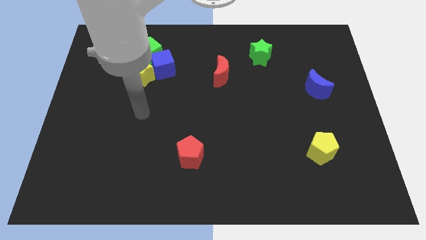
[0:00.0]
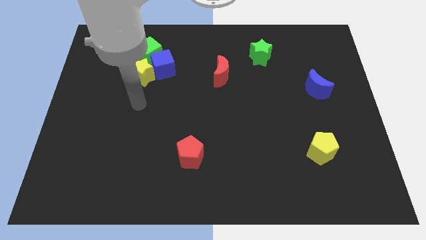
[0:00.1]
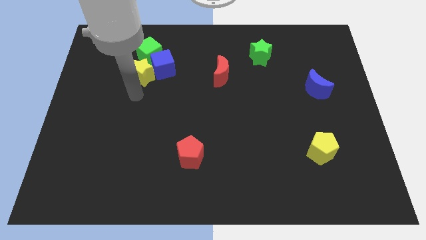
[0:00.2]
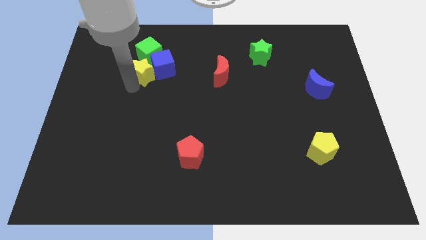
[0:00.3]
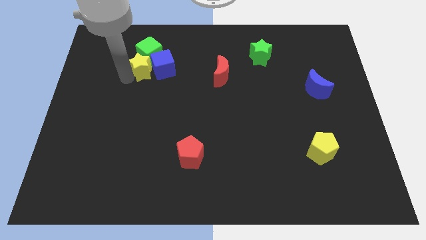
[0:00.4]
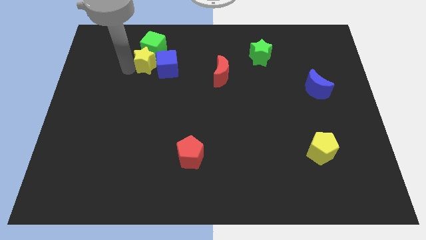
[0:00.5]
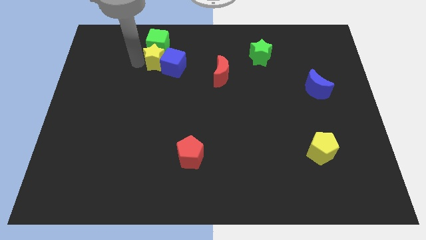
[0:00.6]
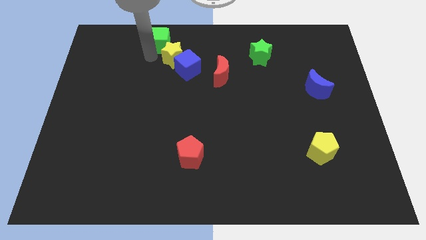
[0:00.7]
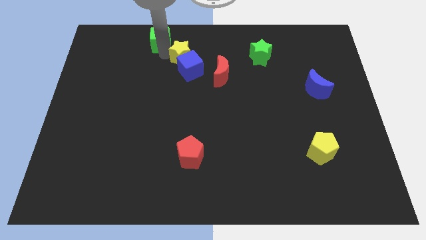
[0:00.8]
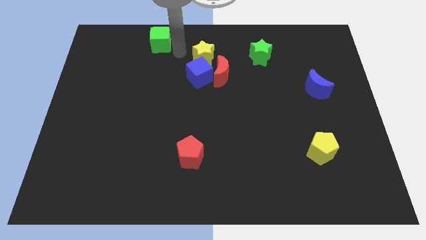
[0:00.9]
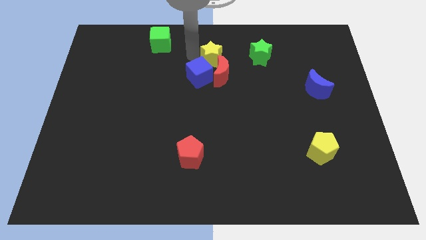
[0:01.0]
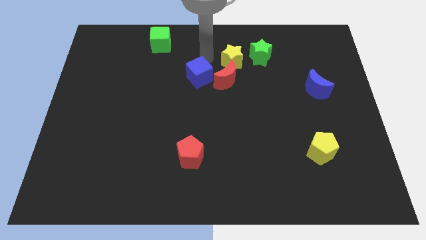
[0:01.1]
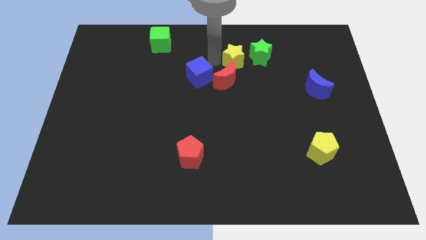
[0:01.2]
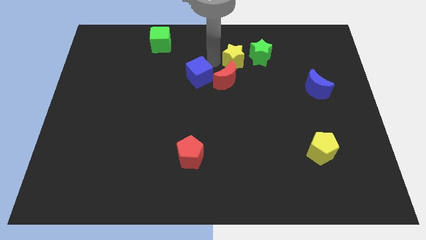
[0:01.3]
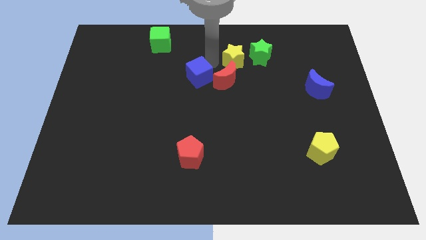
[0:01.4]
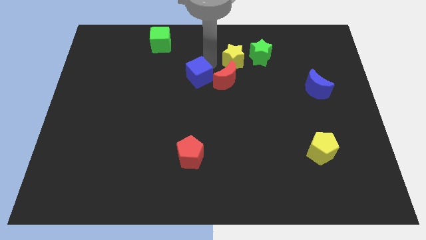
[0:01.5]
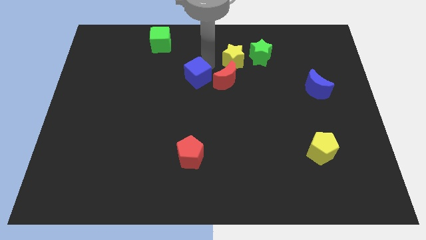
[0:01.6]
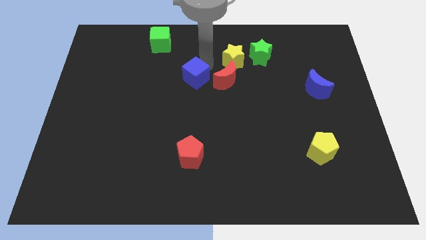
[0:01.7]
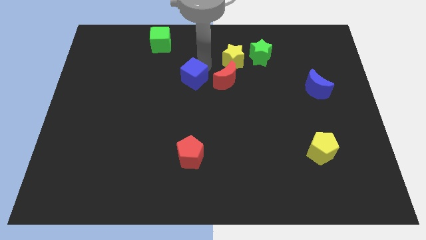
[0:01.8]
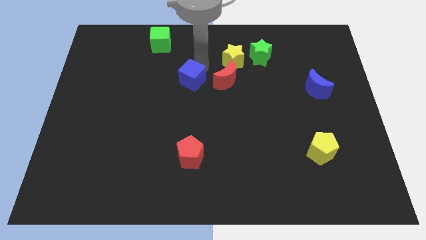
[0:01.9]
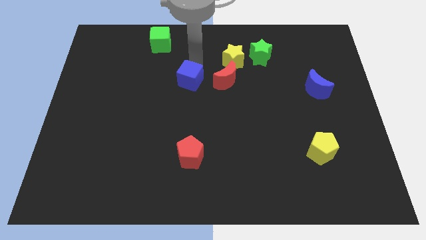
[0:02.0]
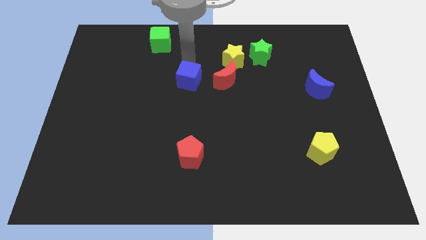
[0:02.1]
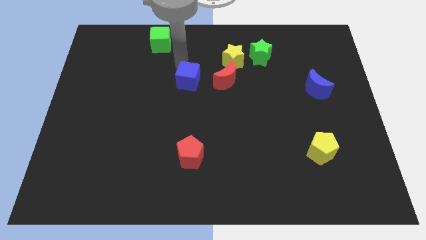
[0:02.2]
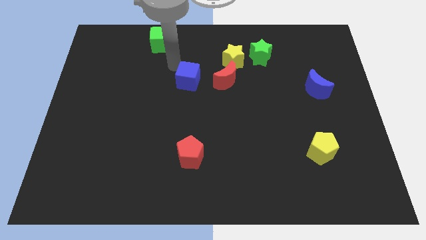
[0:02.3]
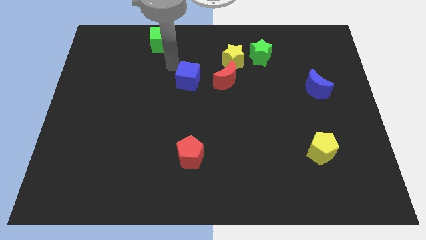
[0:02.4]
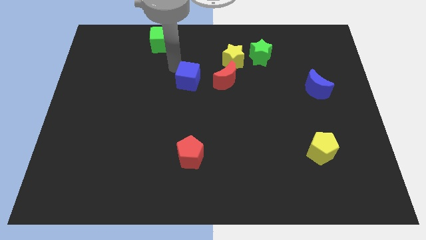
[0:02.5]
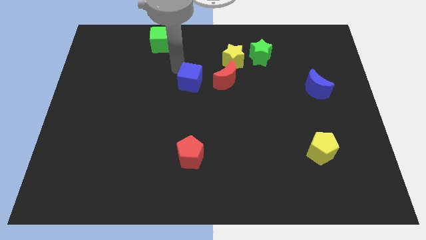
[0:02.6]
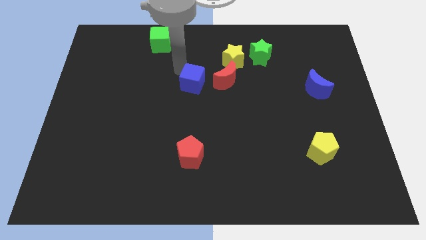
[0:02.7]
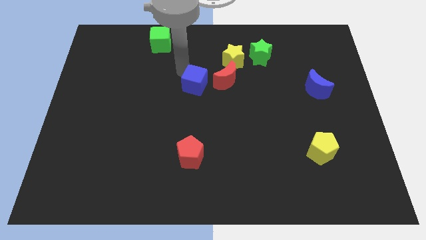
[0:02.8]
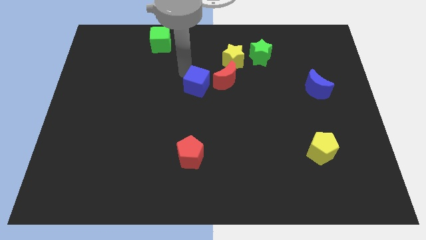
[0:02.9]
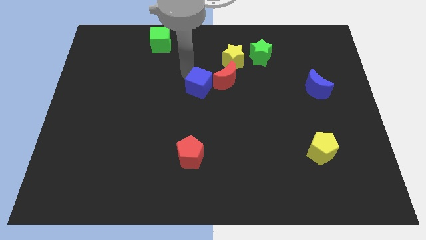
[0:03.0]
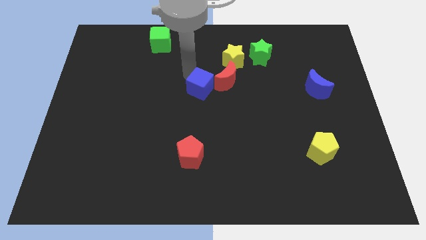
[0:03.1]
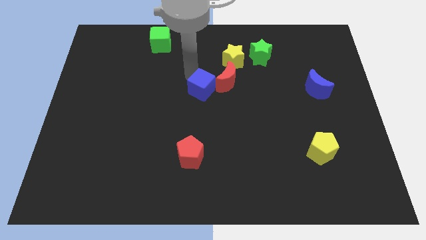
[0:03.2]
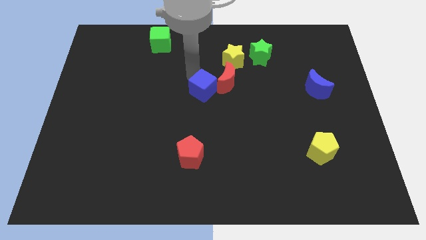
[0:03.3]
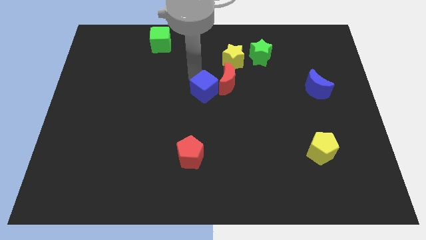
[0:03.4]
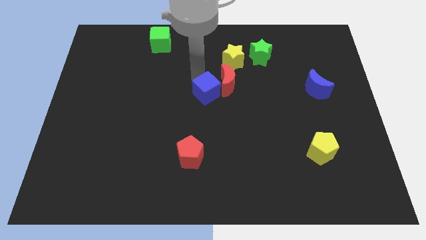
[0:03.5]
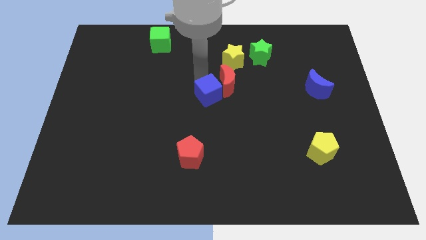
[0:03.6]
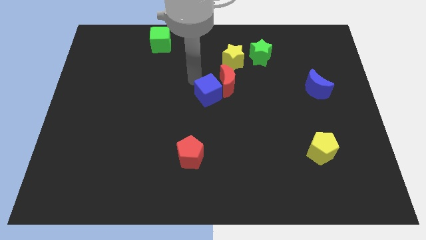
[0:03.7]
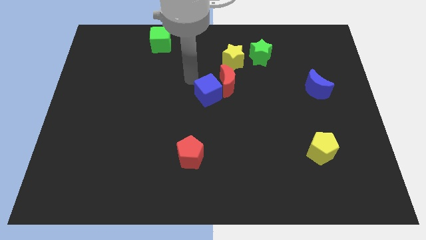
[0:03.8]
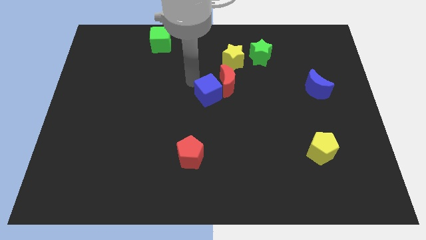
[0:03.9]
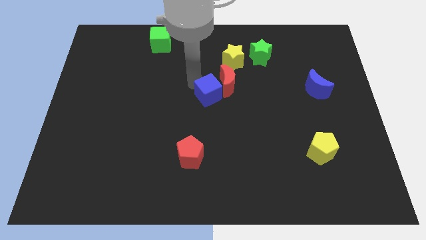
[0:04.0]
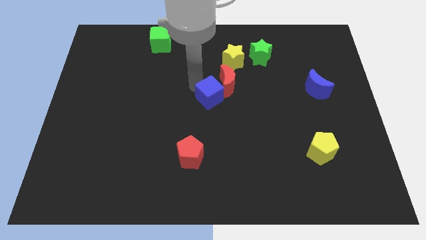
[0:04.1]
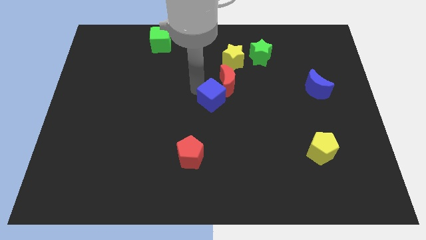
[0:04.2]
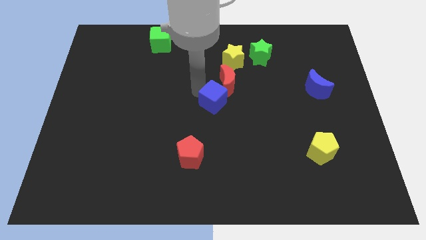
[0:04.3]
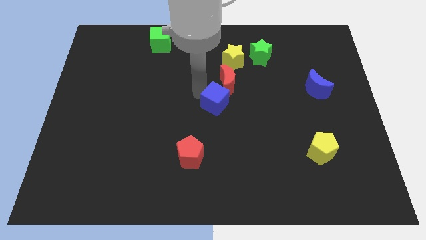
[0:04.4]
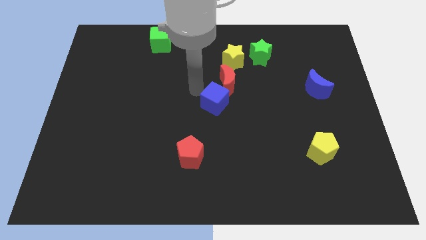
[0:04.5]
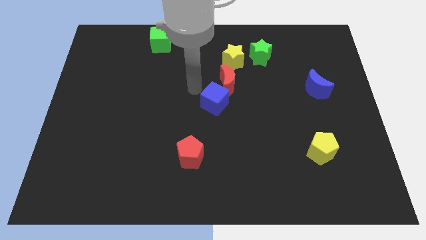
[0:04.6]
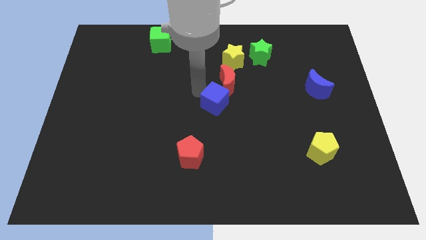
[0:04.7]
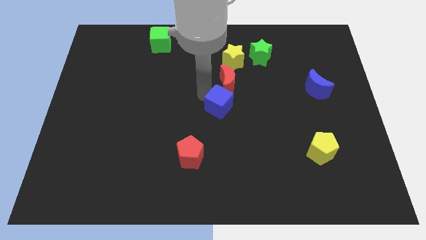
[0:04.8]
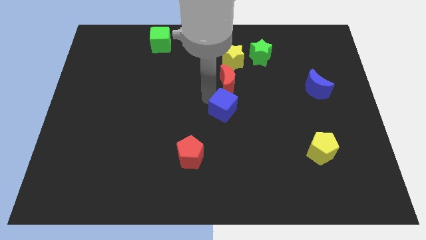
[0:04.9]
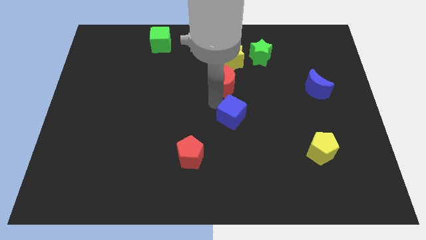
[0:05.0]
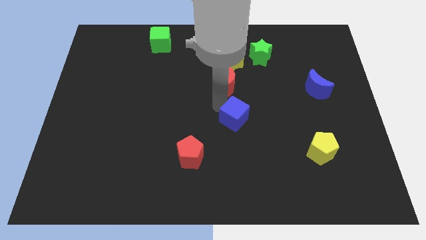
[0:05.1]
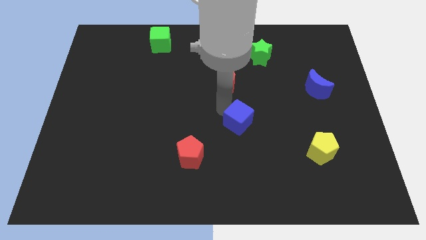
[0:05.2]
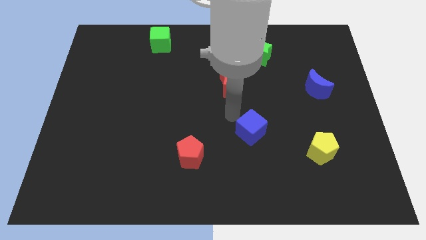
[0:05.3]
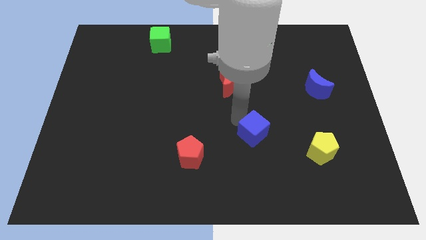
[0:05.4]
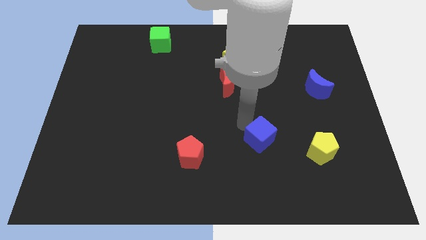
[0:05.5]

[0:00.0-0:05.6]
move the blue cube just left of the yellow pentagon

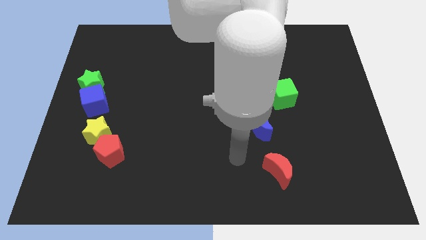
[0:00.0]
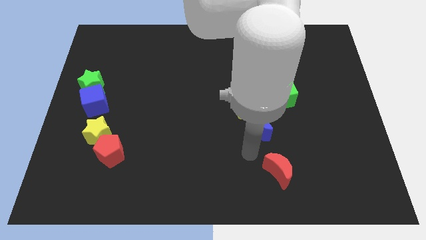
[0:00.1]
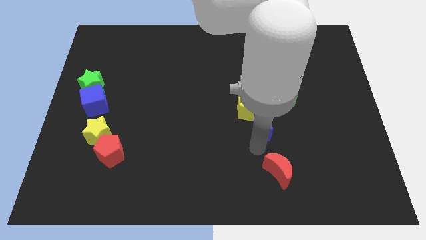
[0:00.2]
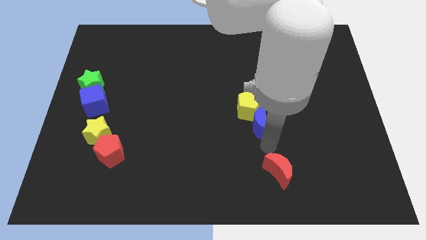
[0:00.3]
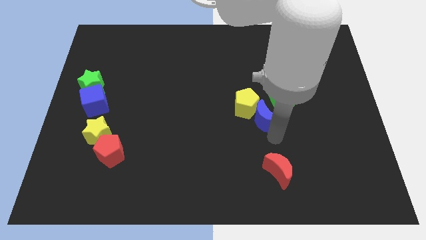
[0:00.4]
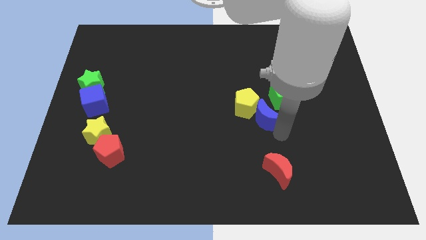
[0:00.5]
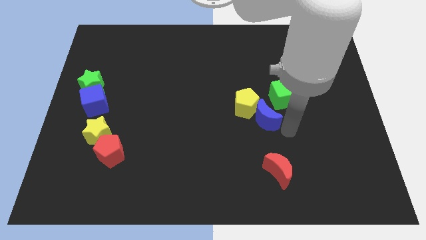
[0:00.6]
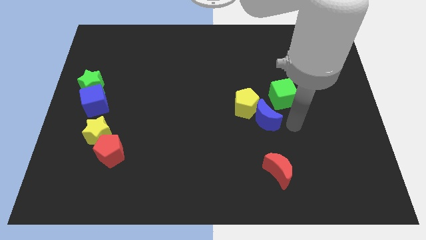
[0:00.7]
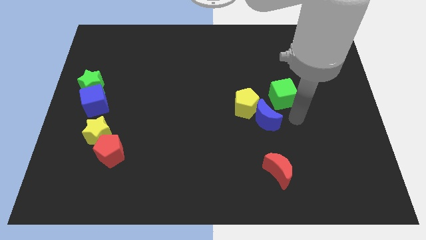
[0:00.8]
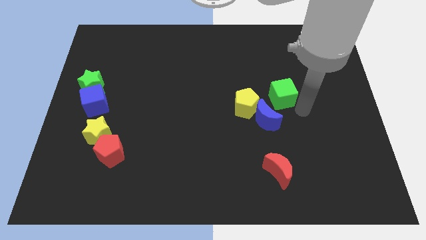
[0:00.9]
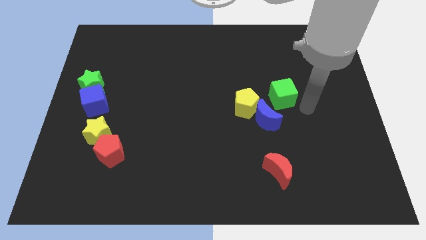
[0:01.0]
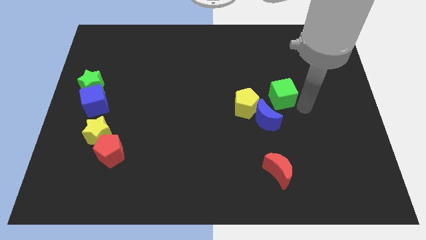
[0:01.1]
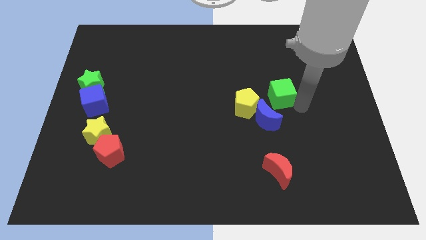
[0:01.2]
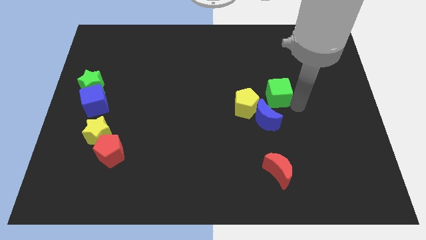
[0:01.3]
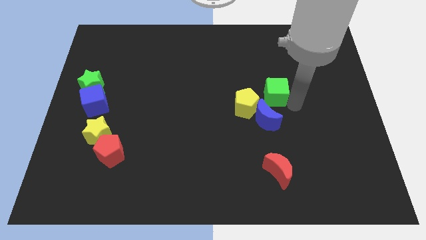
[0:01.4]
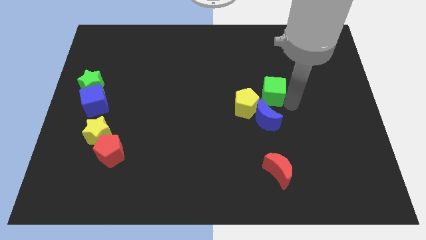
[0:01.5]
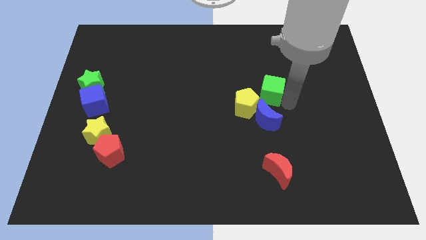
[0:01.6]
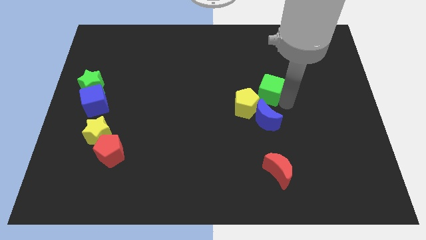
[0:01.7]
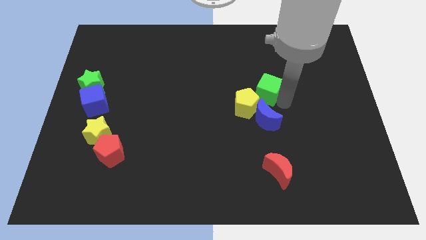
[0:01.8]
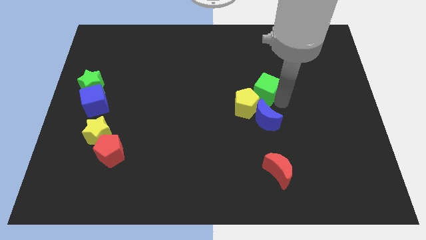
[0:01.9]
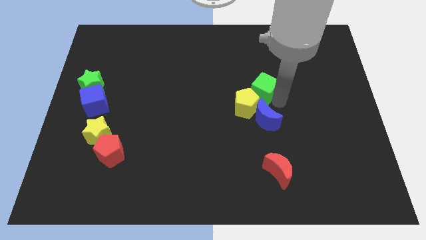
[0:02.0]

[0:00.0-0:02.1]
push the green cube to the top side of the yellow pentagon
